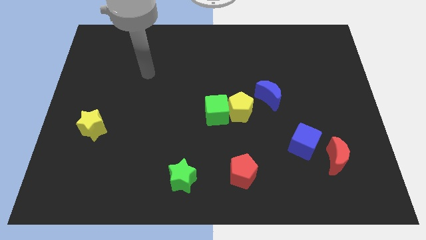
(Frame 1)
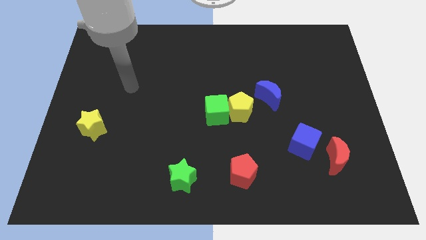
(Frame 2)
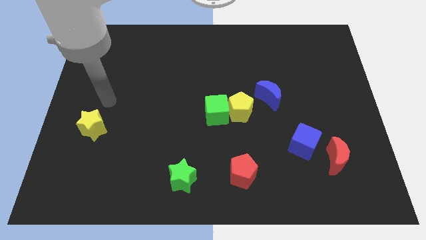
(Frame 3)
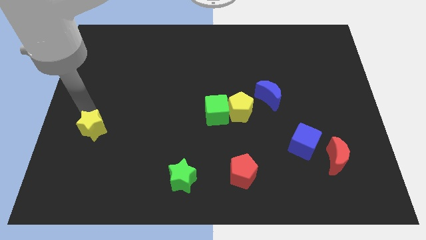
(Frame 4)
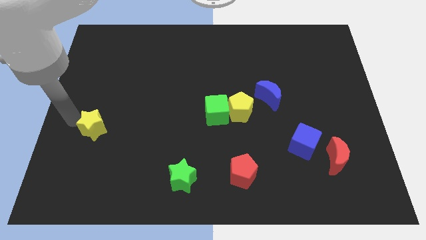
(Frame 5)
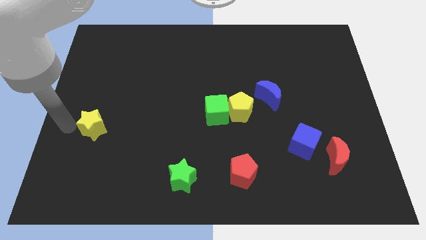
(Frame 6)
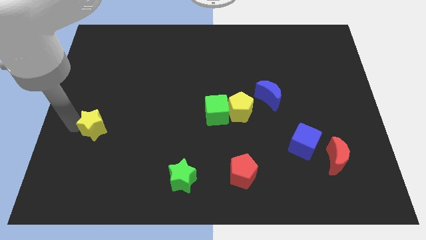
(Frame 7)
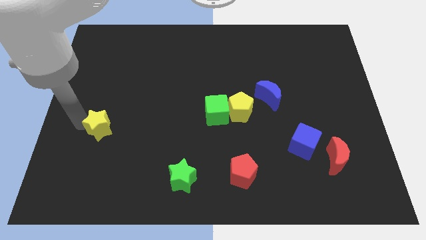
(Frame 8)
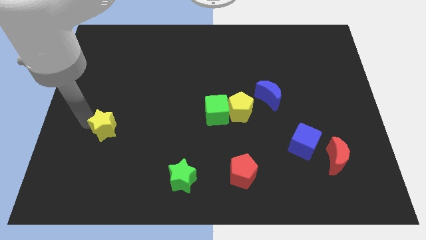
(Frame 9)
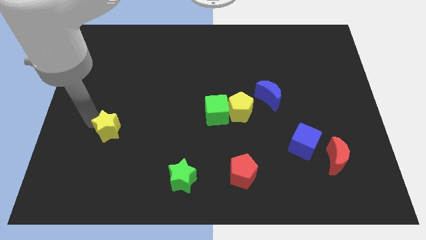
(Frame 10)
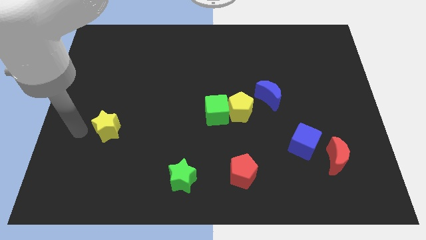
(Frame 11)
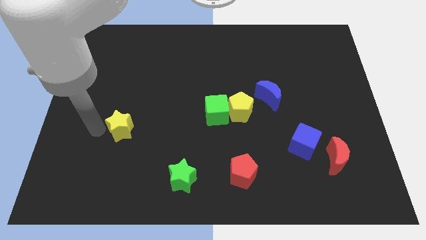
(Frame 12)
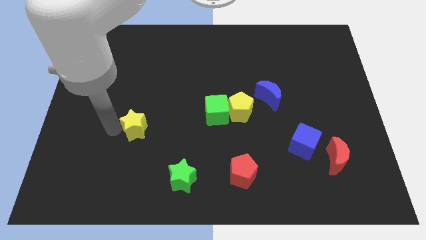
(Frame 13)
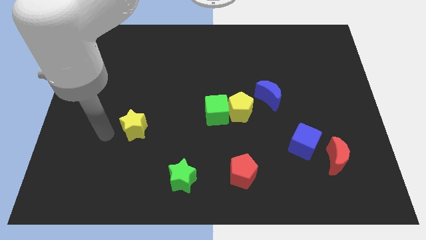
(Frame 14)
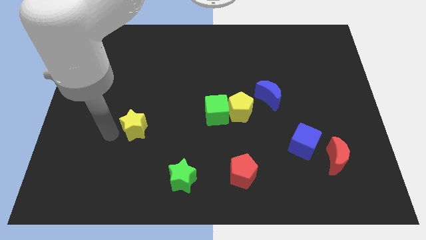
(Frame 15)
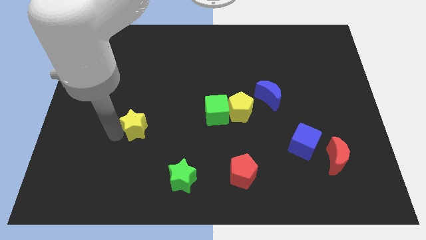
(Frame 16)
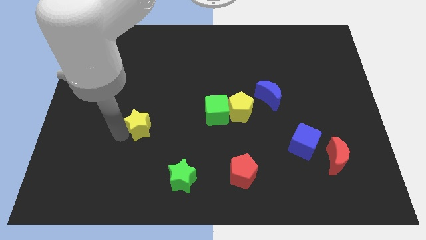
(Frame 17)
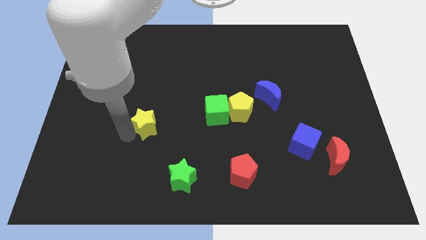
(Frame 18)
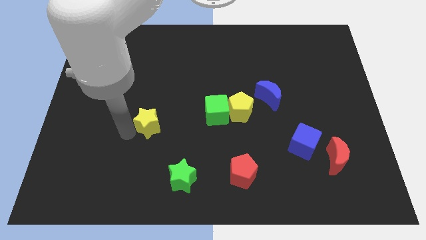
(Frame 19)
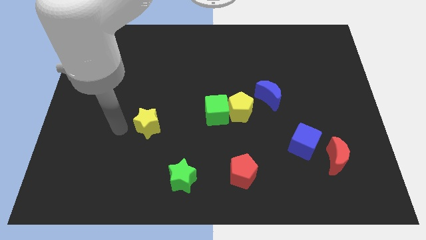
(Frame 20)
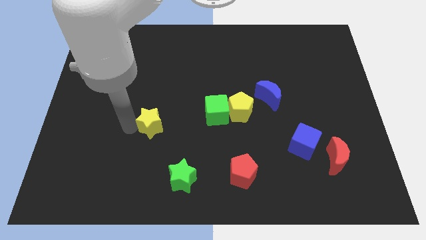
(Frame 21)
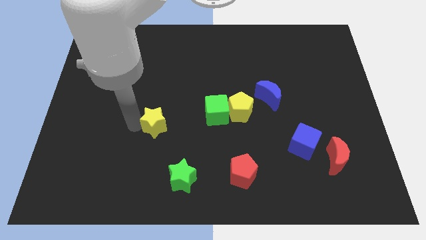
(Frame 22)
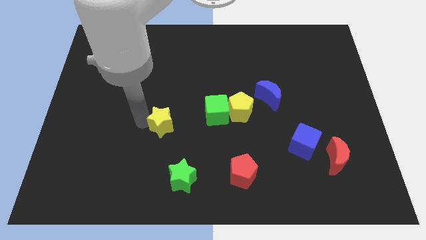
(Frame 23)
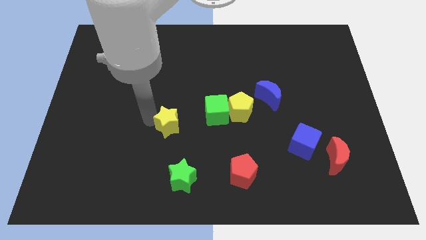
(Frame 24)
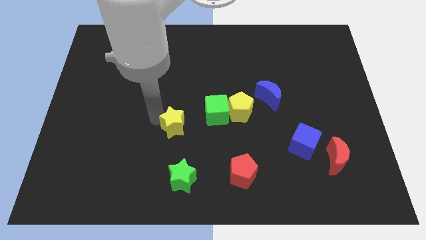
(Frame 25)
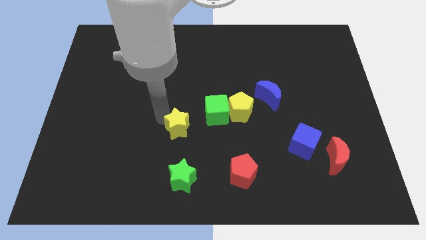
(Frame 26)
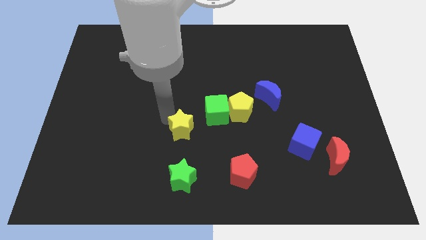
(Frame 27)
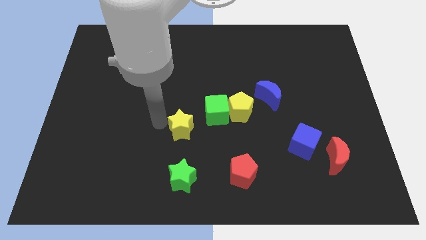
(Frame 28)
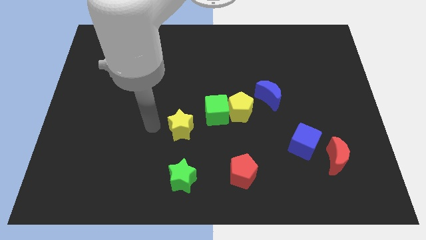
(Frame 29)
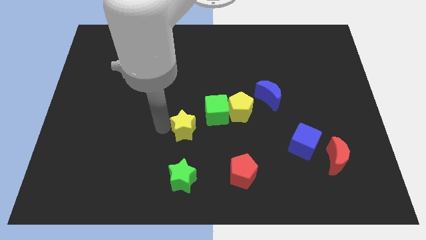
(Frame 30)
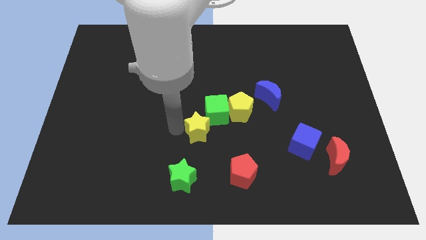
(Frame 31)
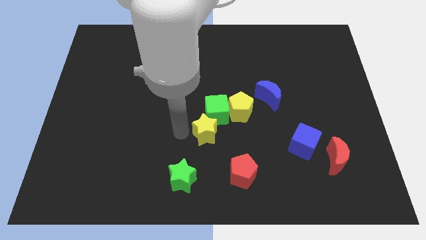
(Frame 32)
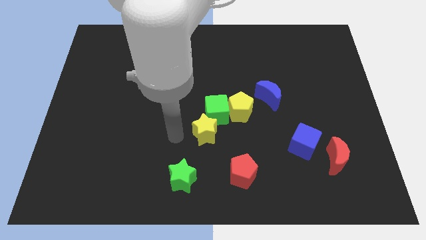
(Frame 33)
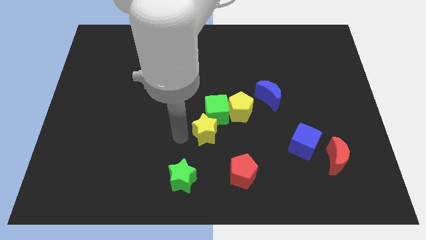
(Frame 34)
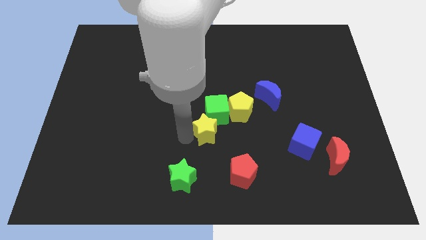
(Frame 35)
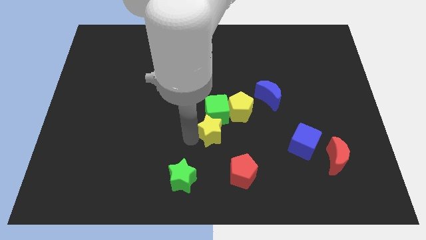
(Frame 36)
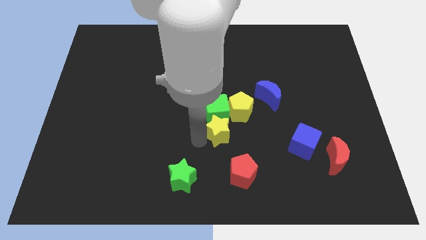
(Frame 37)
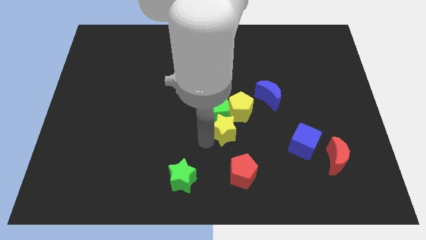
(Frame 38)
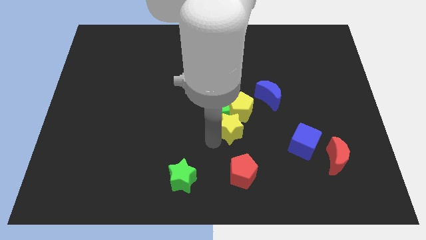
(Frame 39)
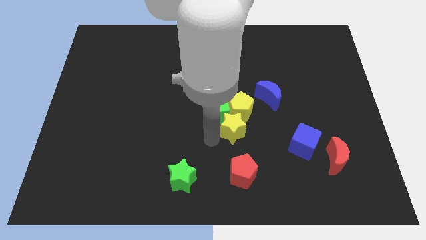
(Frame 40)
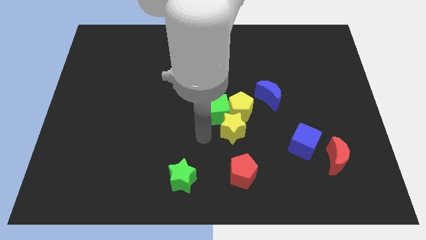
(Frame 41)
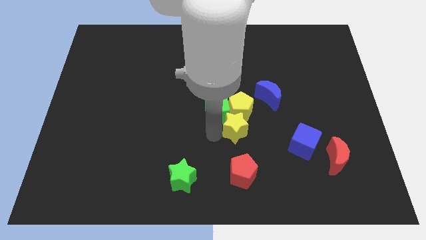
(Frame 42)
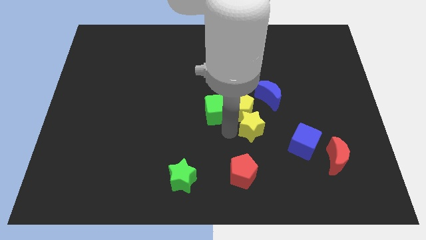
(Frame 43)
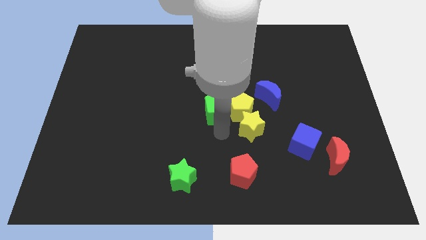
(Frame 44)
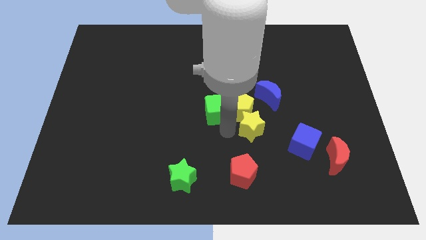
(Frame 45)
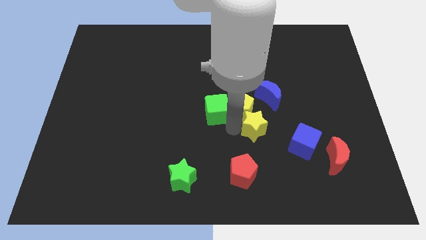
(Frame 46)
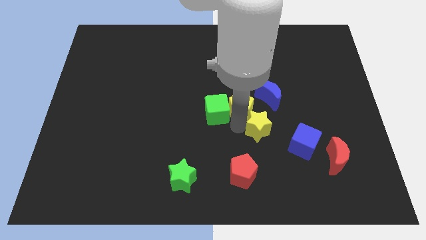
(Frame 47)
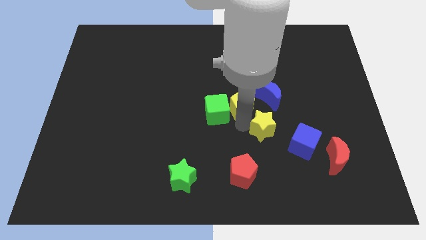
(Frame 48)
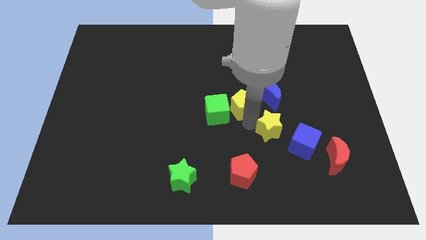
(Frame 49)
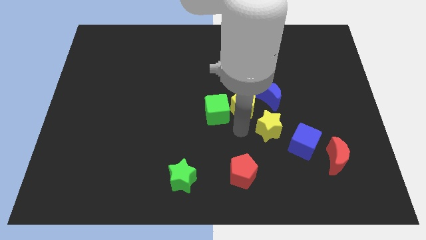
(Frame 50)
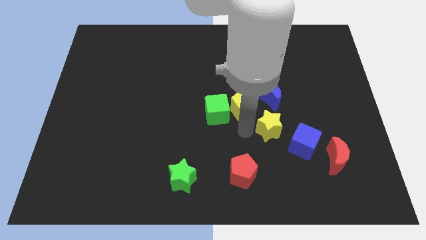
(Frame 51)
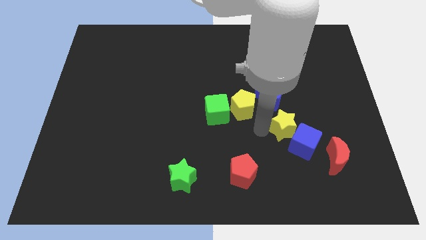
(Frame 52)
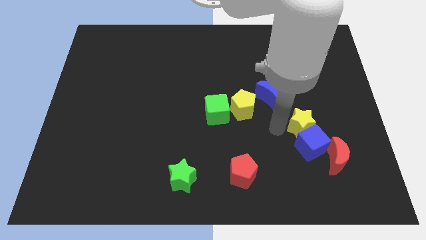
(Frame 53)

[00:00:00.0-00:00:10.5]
move the yellow star to the top right side of the blue cube

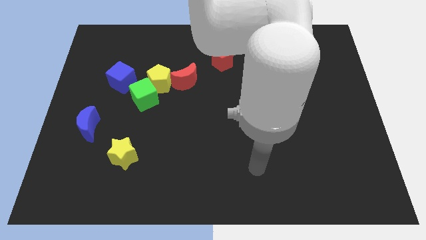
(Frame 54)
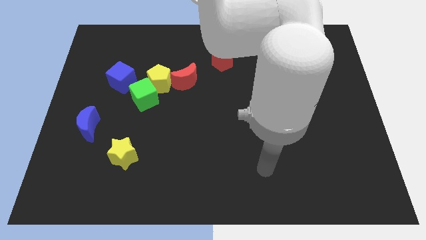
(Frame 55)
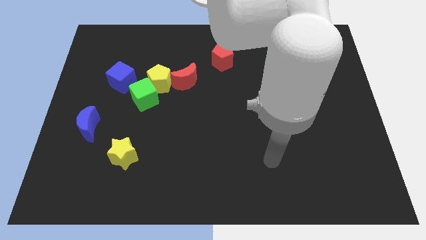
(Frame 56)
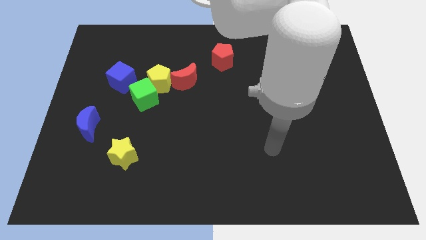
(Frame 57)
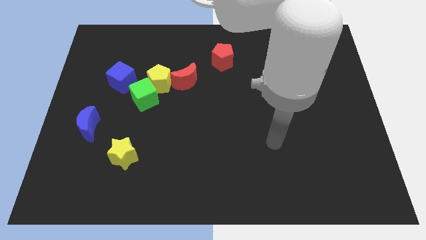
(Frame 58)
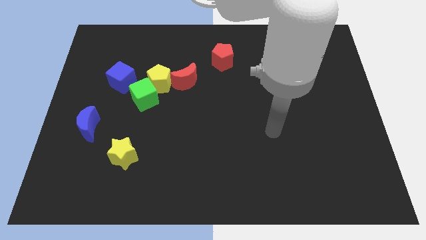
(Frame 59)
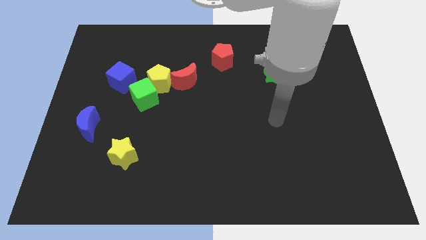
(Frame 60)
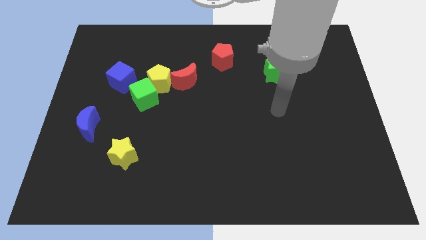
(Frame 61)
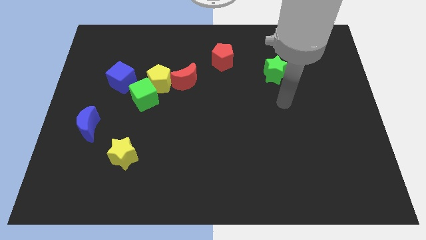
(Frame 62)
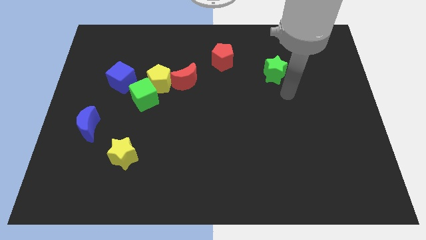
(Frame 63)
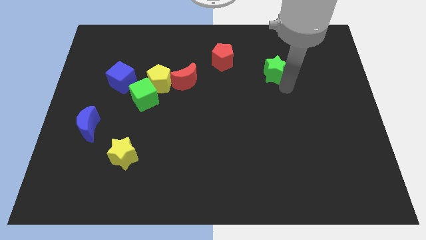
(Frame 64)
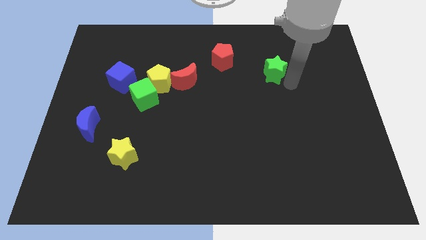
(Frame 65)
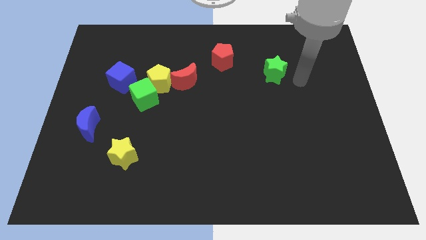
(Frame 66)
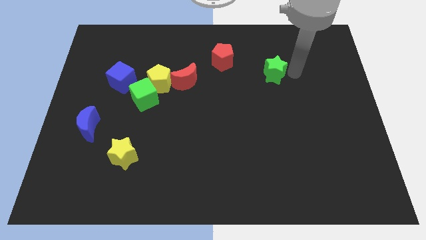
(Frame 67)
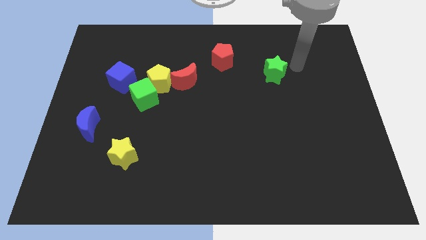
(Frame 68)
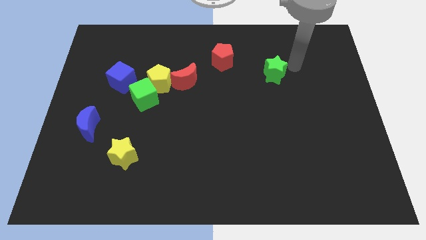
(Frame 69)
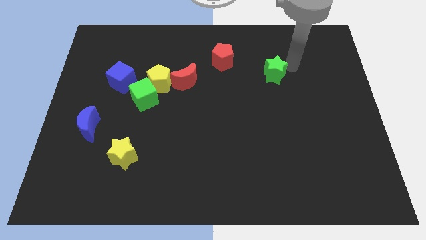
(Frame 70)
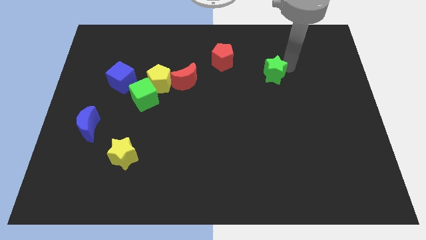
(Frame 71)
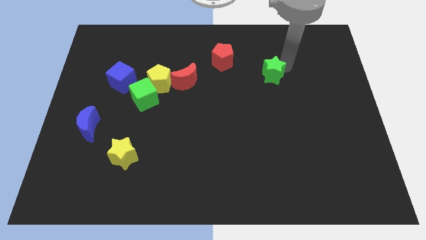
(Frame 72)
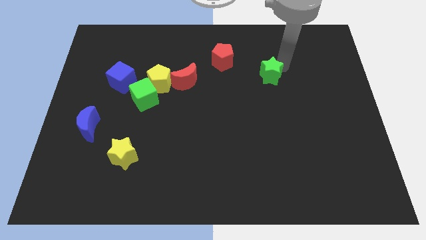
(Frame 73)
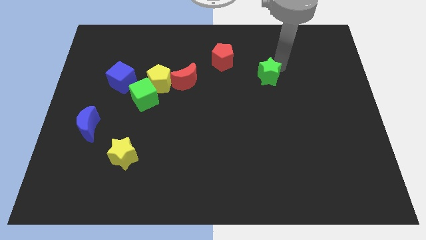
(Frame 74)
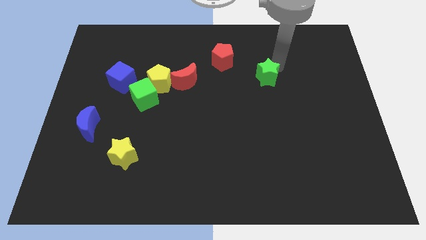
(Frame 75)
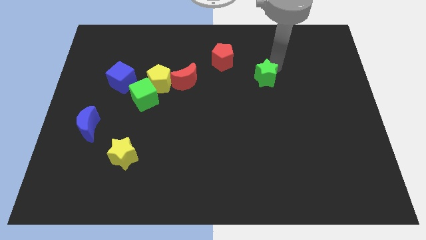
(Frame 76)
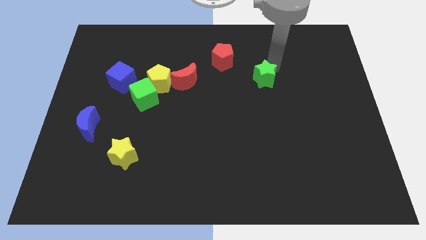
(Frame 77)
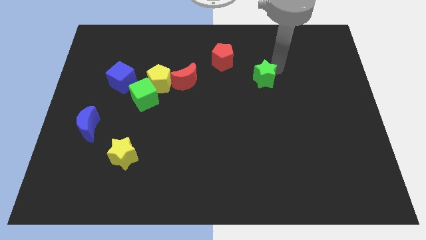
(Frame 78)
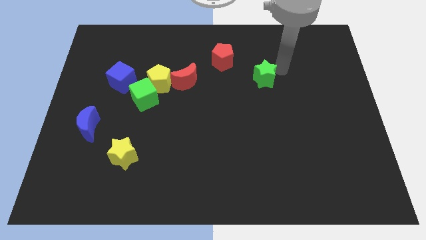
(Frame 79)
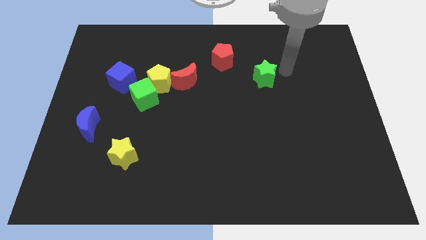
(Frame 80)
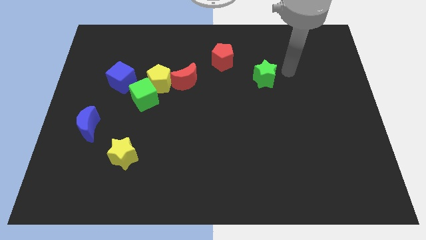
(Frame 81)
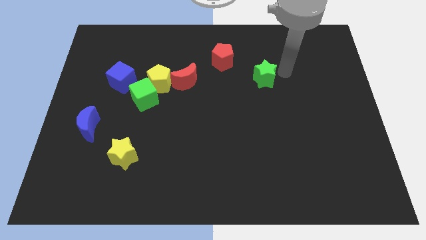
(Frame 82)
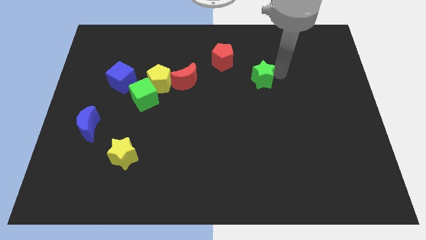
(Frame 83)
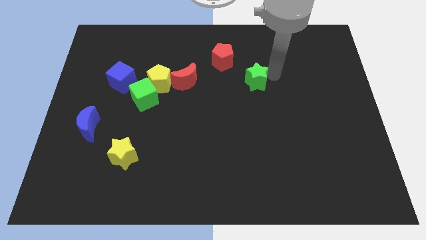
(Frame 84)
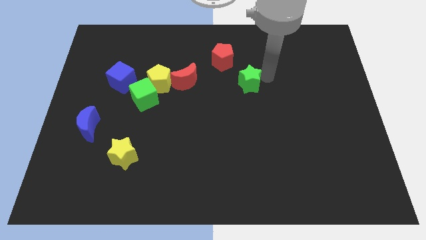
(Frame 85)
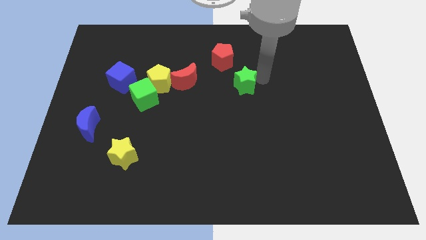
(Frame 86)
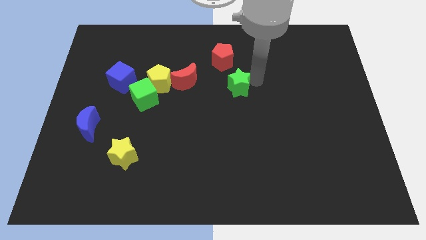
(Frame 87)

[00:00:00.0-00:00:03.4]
move the green star below the red pentagon
